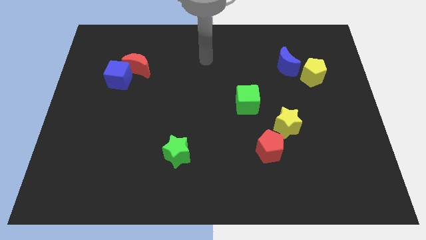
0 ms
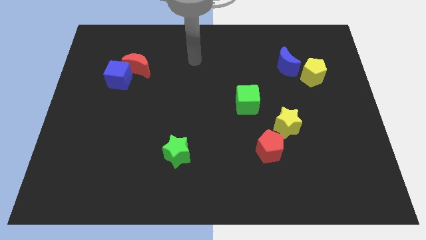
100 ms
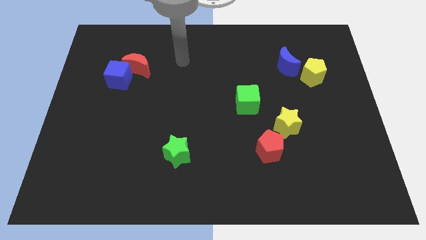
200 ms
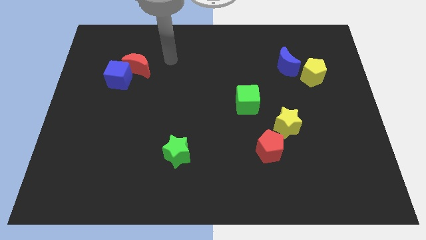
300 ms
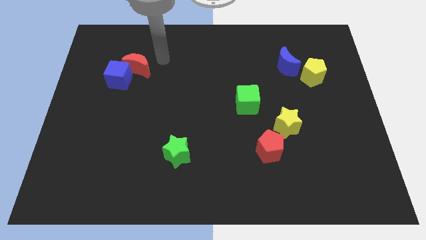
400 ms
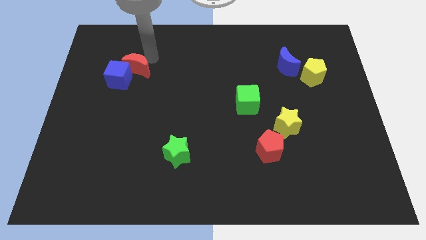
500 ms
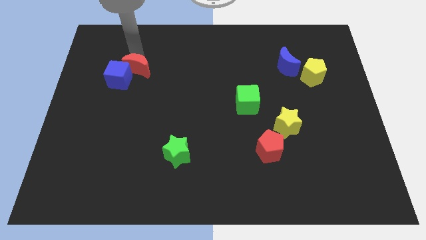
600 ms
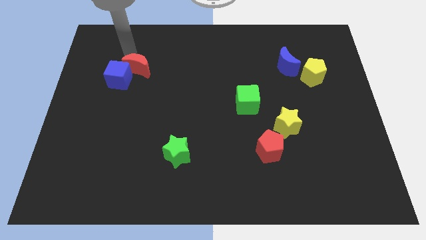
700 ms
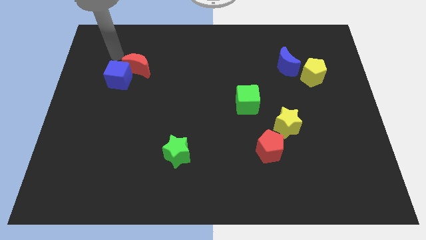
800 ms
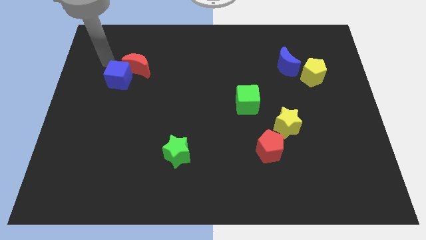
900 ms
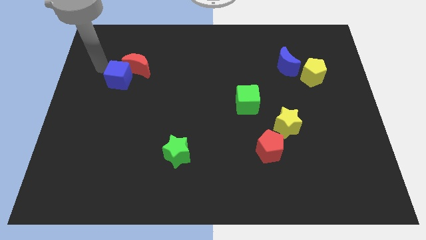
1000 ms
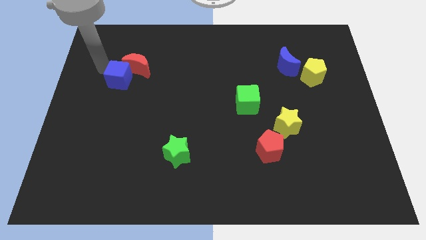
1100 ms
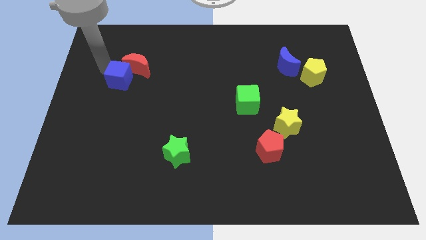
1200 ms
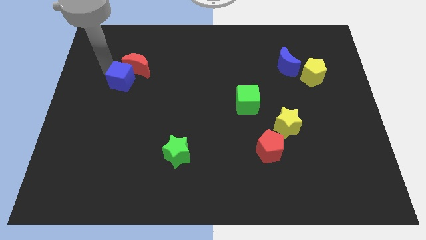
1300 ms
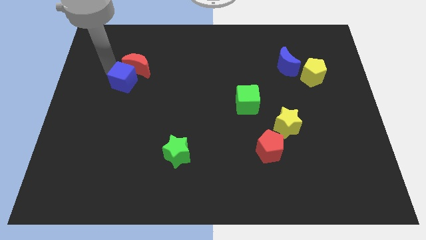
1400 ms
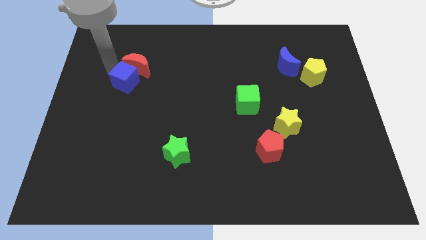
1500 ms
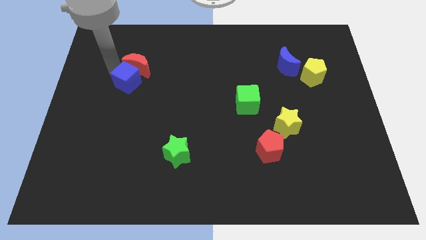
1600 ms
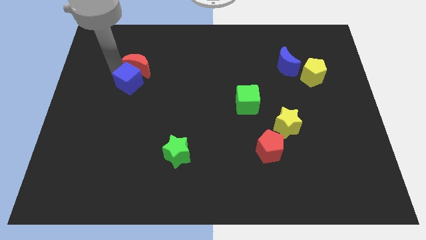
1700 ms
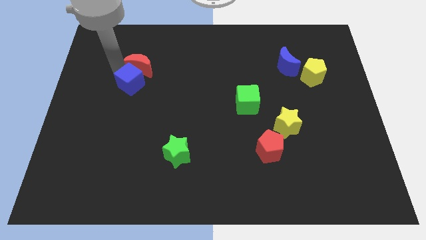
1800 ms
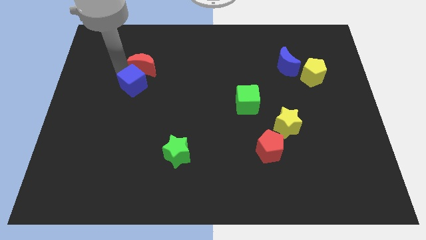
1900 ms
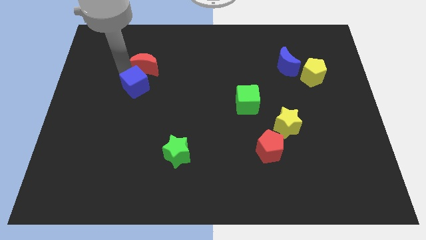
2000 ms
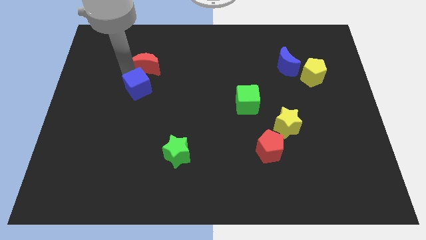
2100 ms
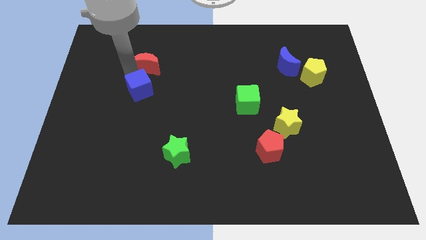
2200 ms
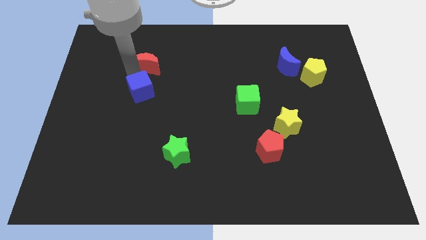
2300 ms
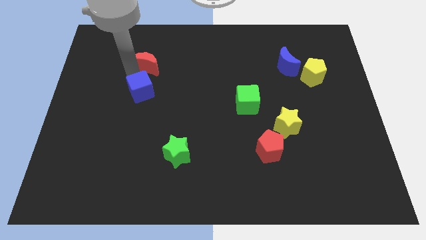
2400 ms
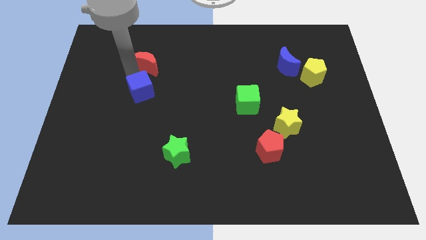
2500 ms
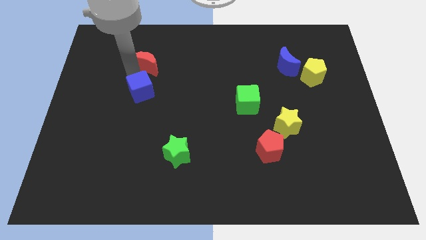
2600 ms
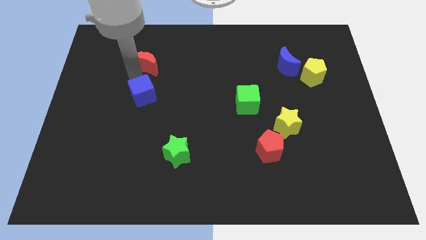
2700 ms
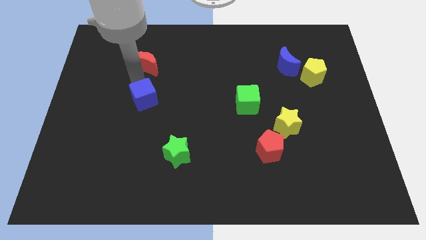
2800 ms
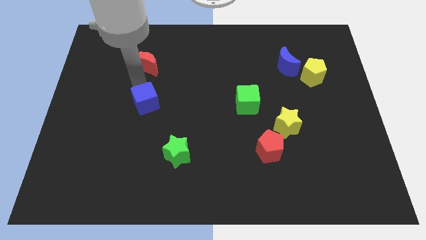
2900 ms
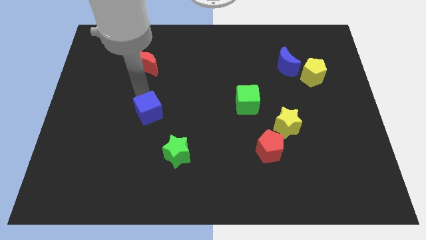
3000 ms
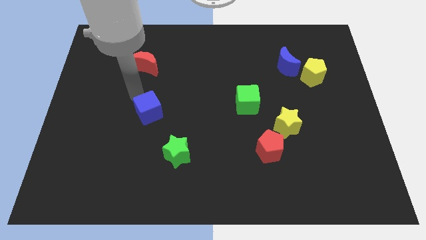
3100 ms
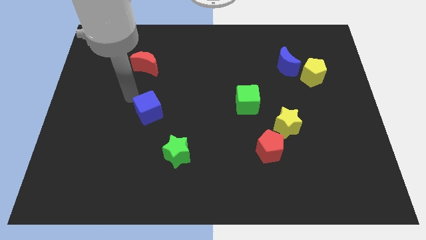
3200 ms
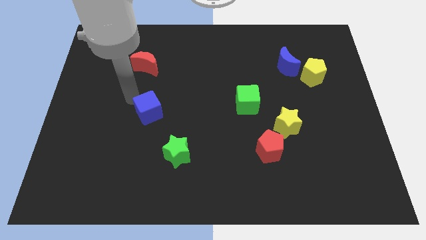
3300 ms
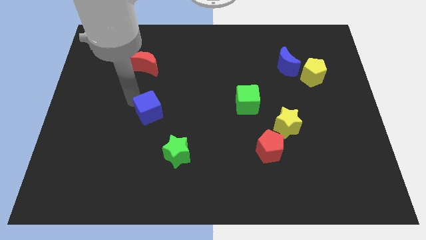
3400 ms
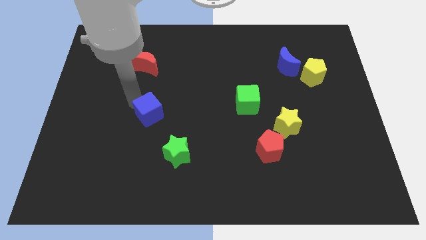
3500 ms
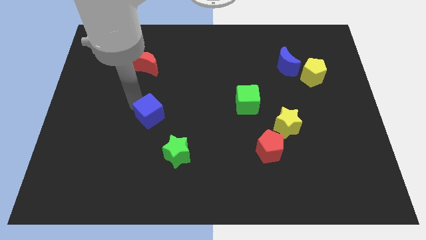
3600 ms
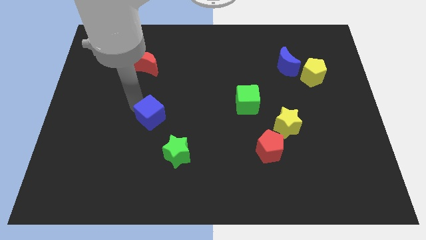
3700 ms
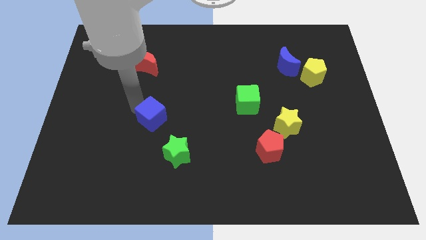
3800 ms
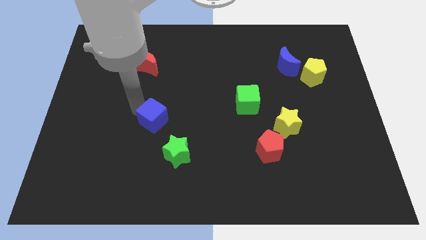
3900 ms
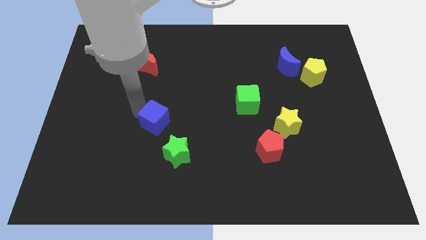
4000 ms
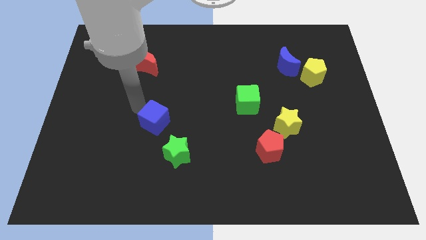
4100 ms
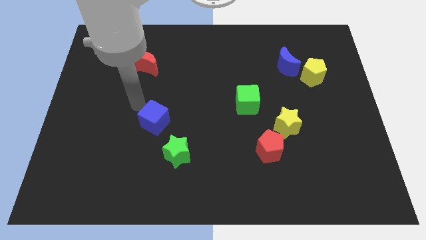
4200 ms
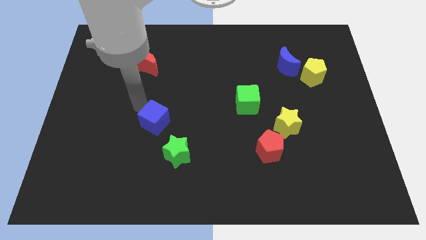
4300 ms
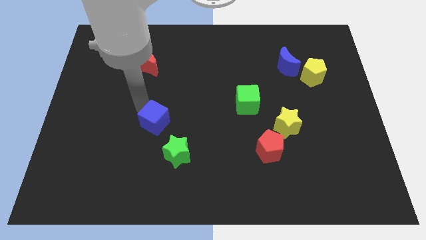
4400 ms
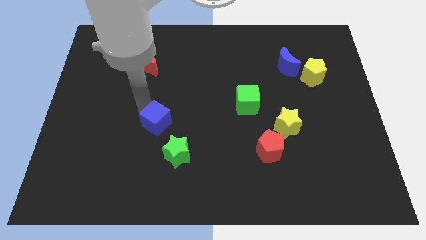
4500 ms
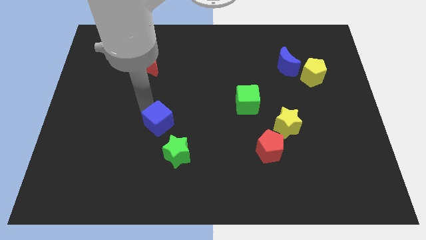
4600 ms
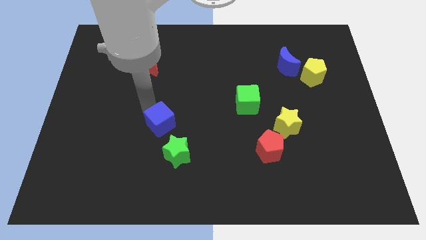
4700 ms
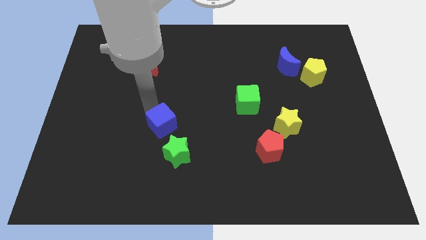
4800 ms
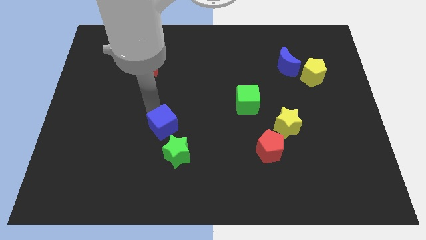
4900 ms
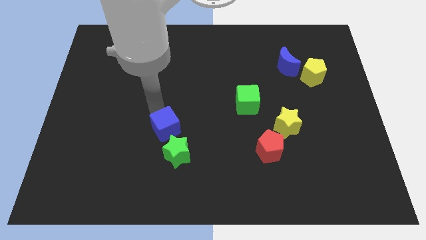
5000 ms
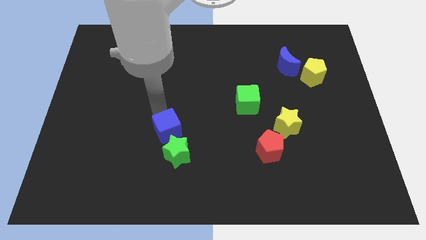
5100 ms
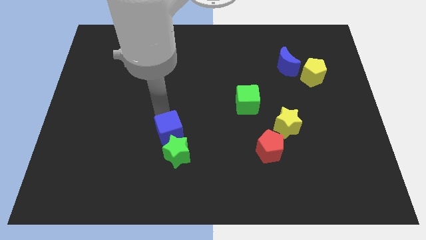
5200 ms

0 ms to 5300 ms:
move the blue cube towards the green star

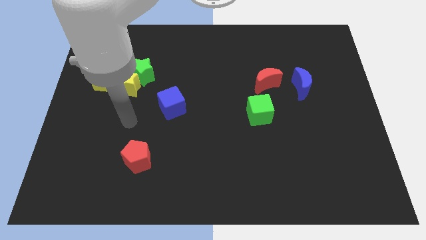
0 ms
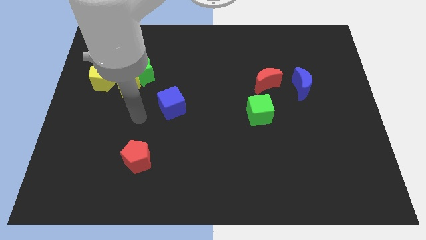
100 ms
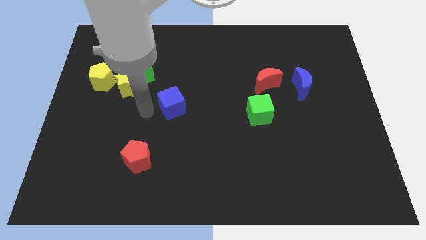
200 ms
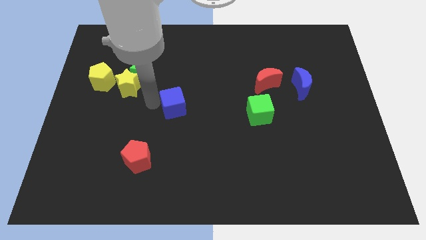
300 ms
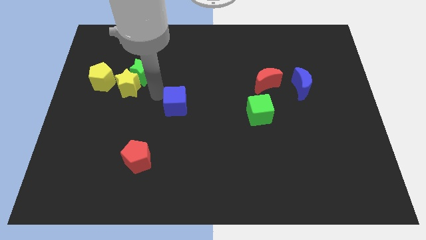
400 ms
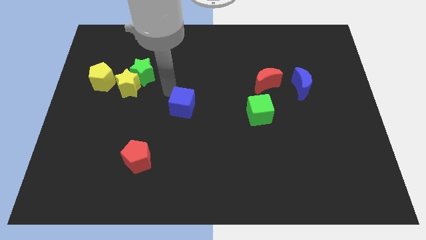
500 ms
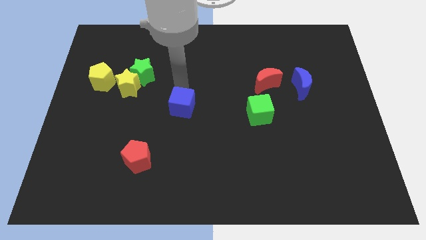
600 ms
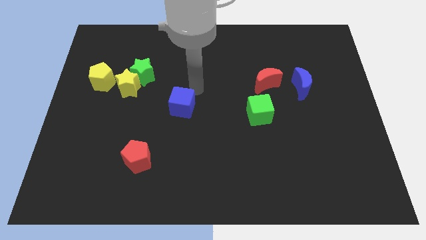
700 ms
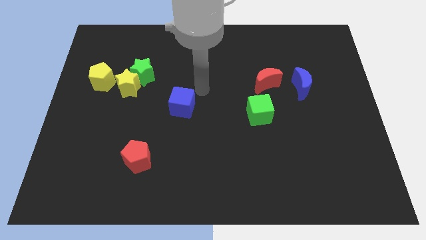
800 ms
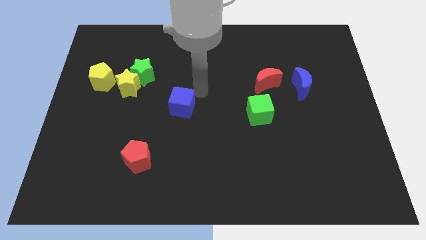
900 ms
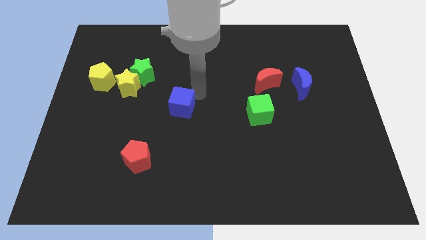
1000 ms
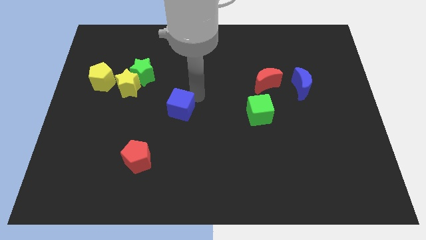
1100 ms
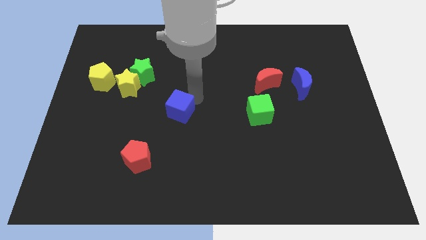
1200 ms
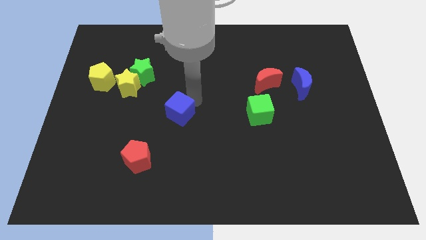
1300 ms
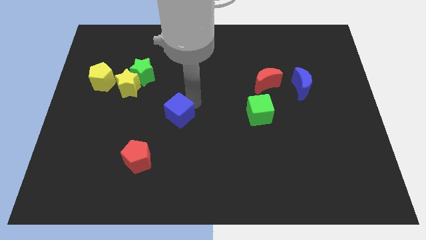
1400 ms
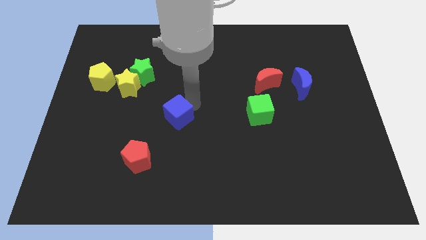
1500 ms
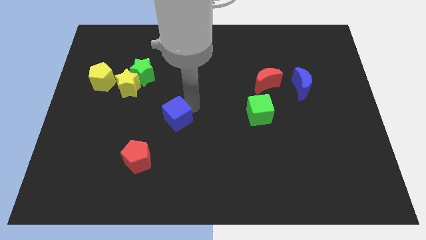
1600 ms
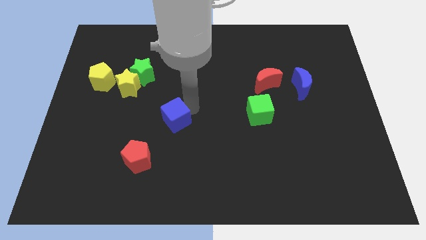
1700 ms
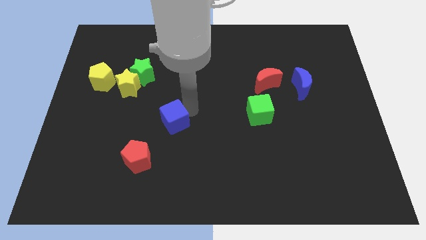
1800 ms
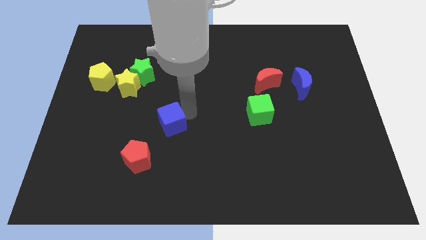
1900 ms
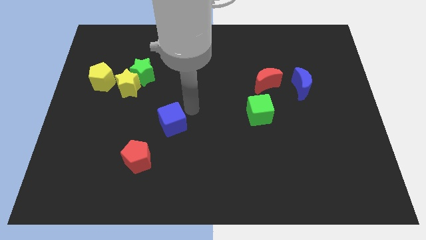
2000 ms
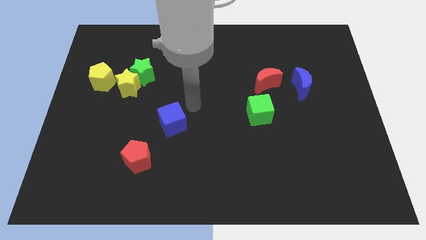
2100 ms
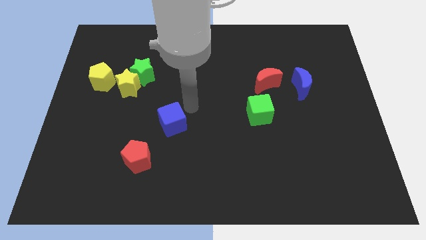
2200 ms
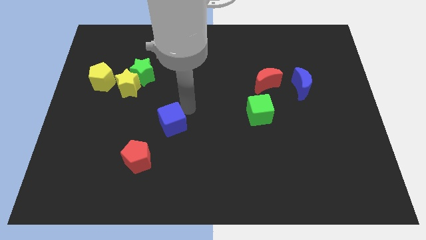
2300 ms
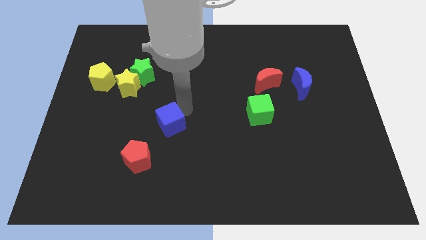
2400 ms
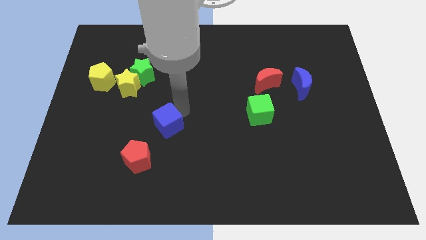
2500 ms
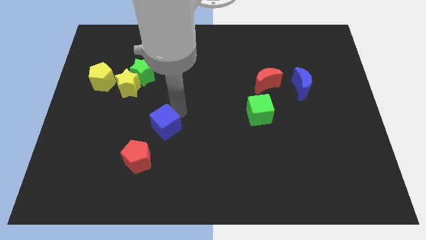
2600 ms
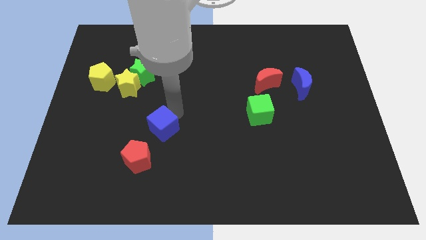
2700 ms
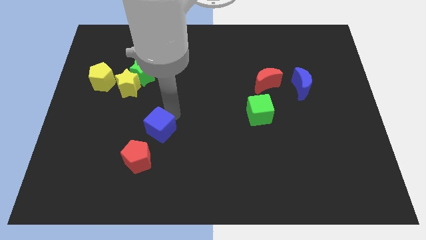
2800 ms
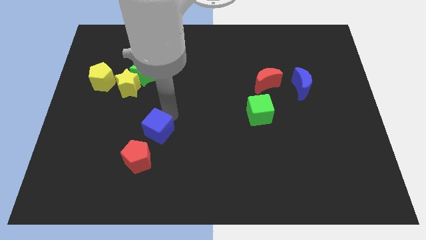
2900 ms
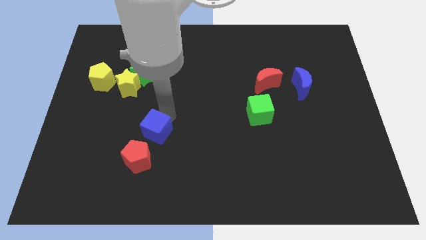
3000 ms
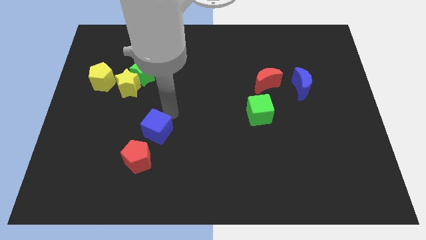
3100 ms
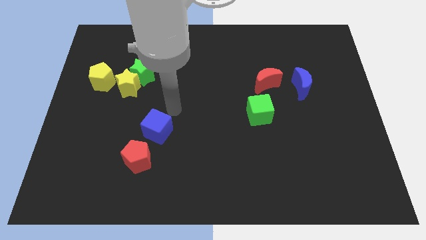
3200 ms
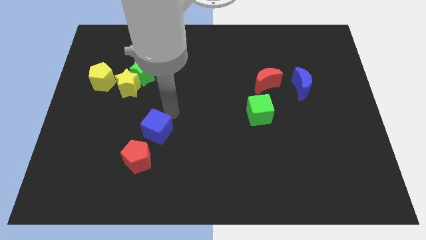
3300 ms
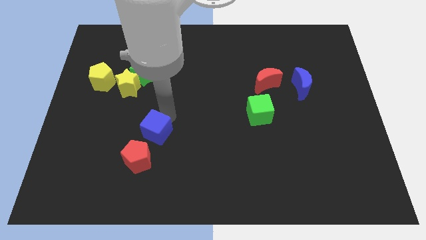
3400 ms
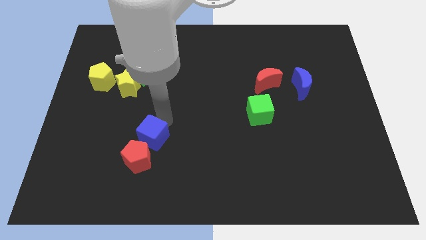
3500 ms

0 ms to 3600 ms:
move the blue cube next to the red pentagon
